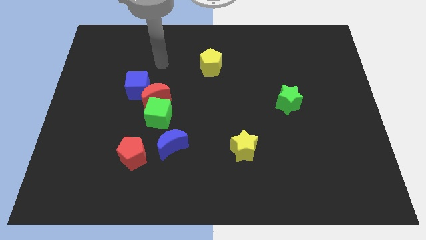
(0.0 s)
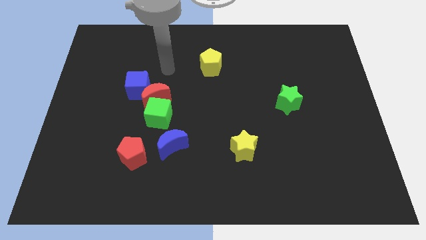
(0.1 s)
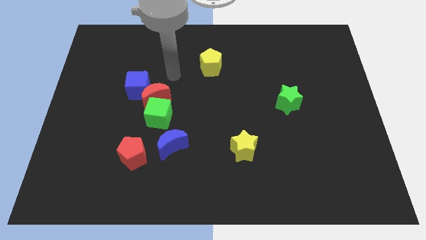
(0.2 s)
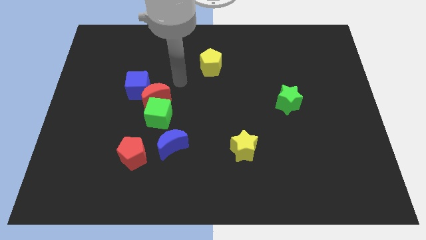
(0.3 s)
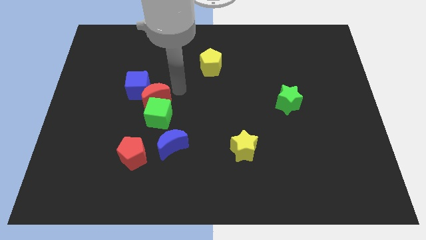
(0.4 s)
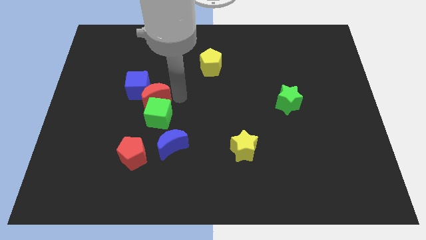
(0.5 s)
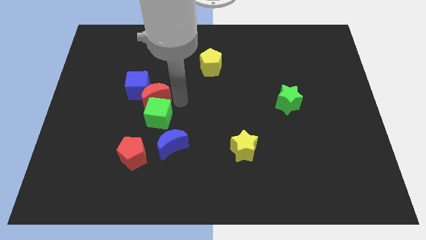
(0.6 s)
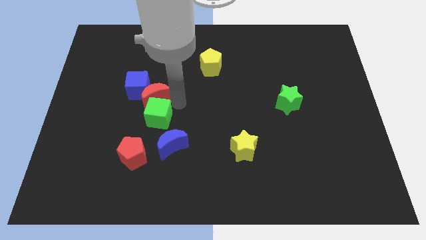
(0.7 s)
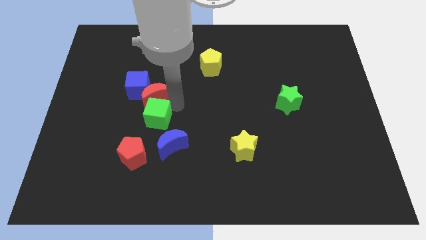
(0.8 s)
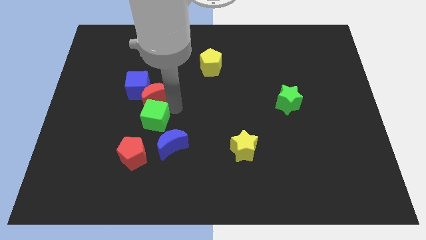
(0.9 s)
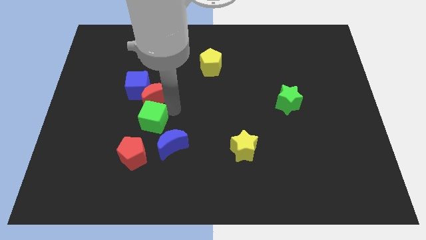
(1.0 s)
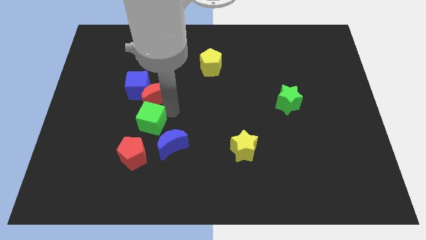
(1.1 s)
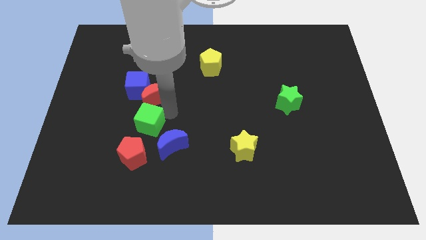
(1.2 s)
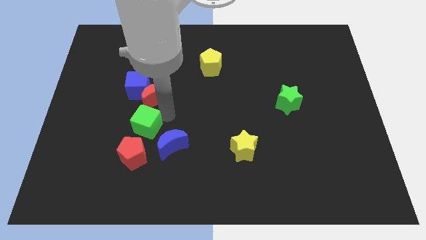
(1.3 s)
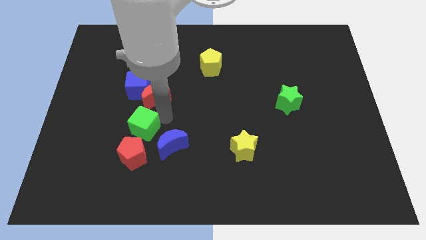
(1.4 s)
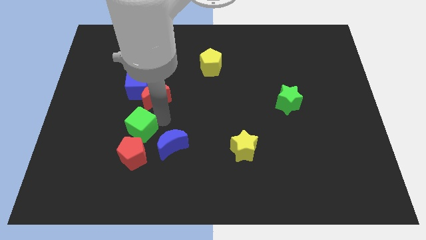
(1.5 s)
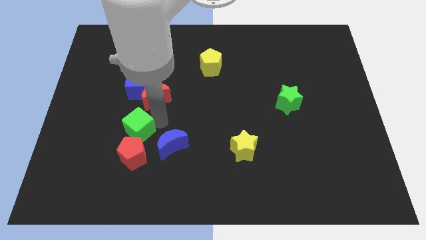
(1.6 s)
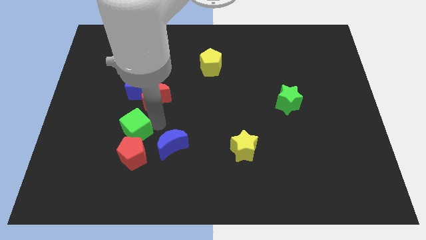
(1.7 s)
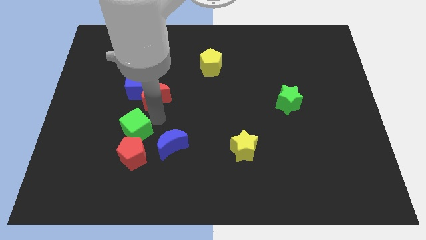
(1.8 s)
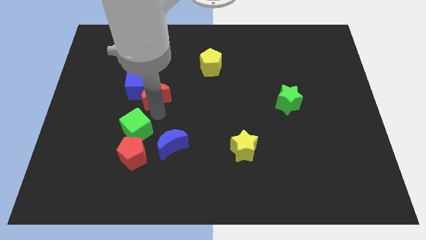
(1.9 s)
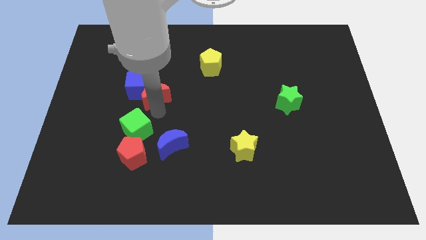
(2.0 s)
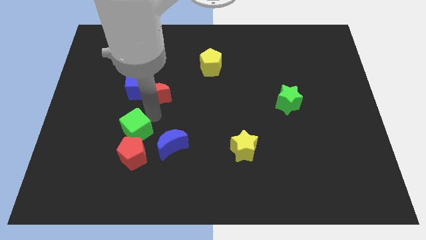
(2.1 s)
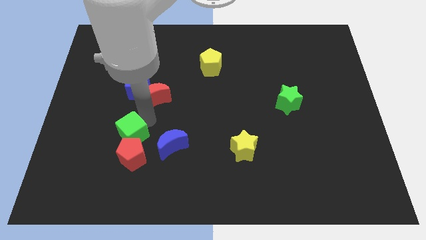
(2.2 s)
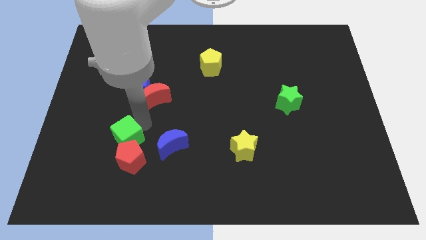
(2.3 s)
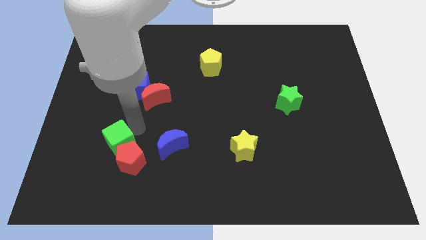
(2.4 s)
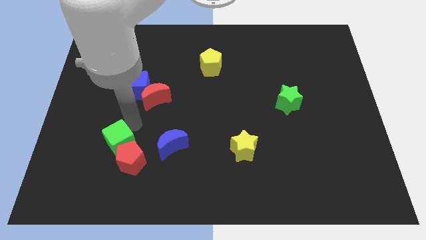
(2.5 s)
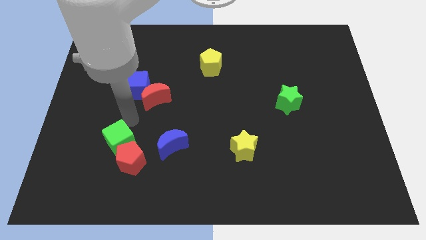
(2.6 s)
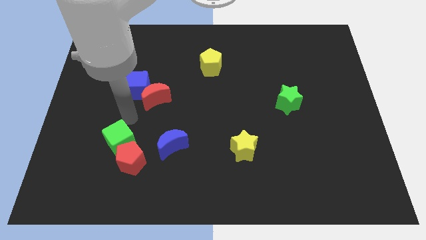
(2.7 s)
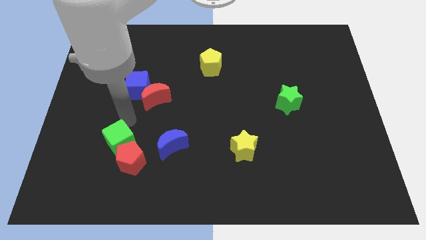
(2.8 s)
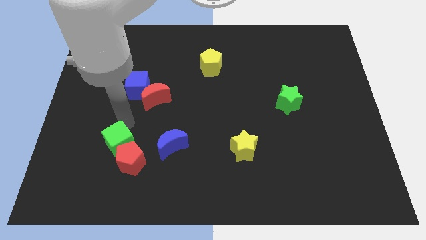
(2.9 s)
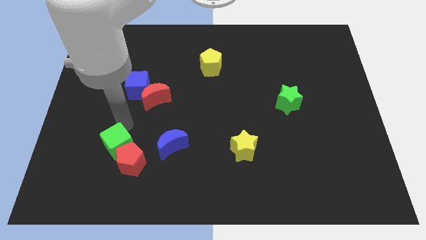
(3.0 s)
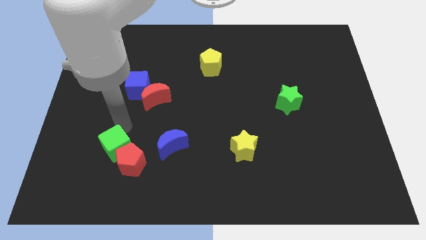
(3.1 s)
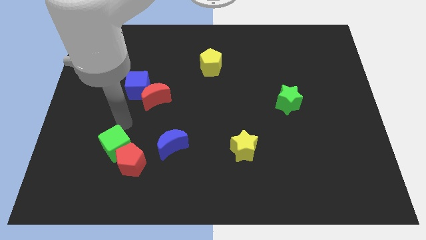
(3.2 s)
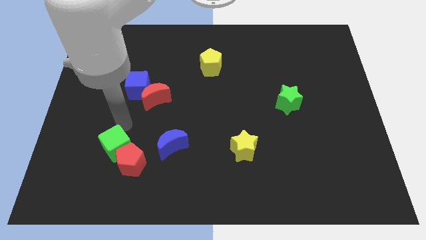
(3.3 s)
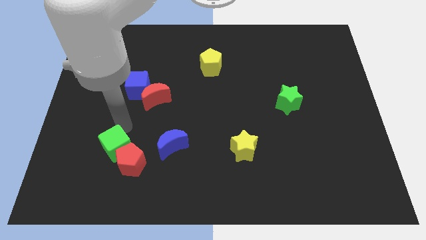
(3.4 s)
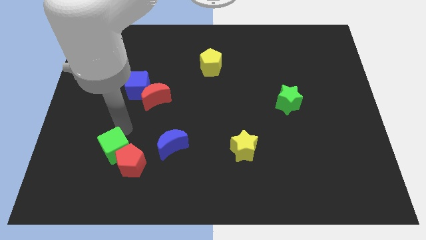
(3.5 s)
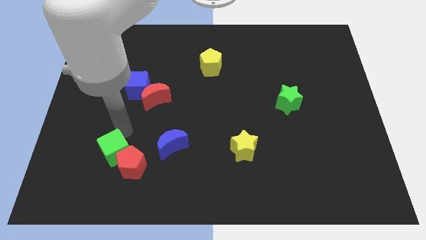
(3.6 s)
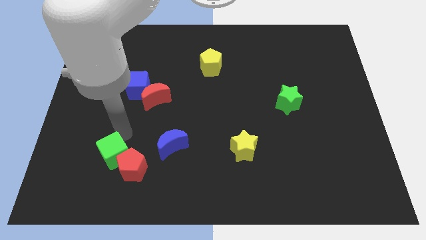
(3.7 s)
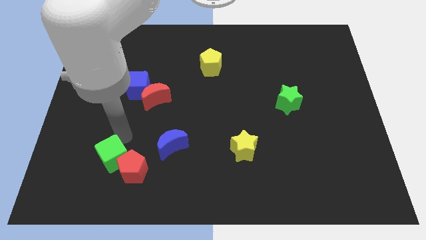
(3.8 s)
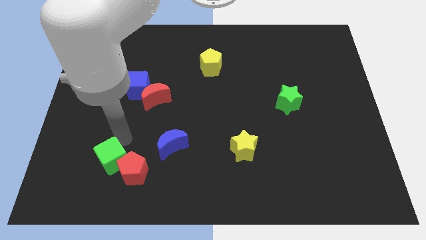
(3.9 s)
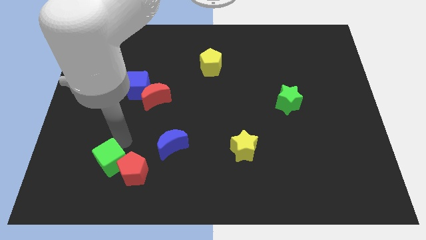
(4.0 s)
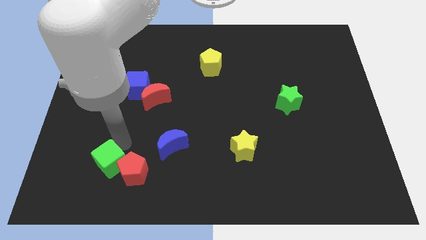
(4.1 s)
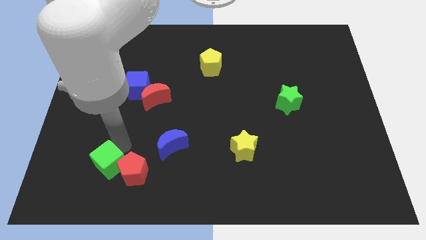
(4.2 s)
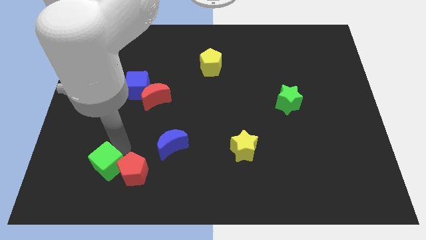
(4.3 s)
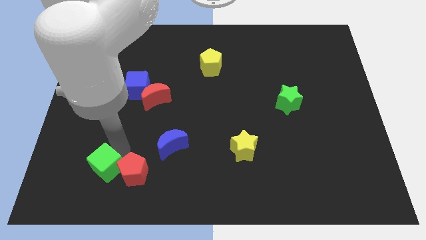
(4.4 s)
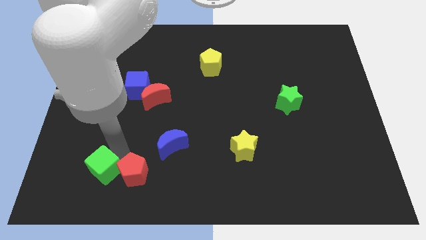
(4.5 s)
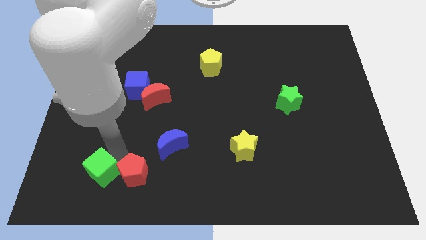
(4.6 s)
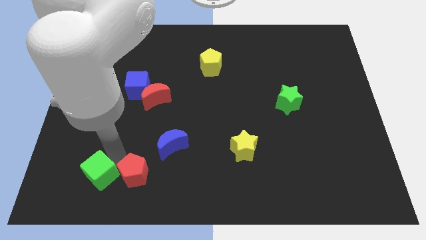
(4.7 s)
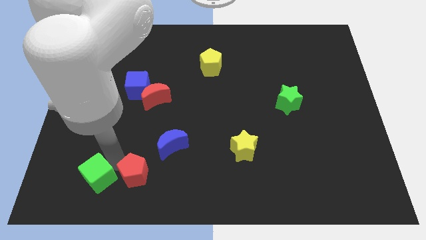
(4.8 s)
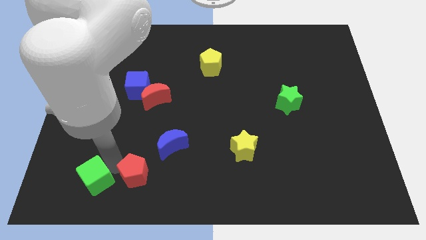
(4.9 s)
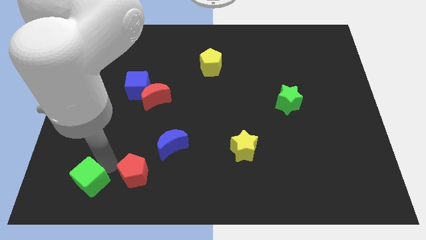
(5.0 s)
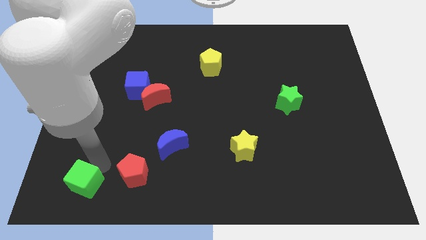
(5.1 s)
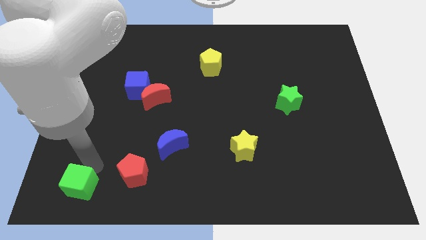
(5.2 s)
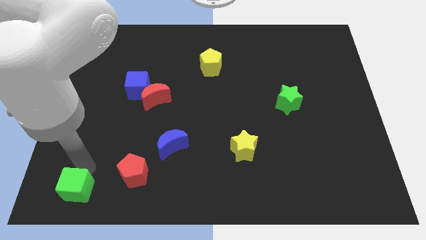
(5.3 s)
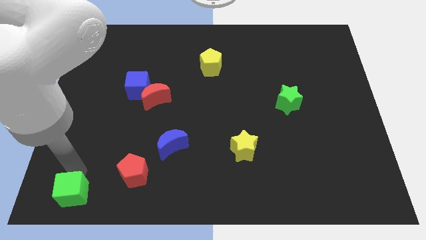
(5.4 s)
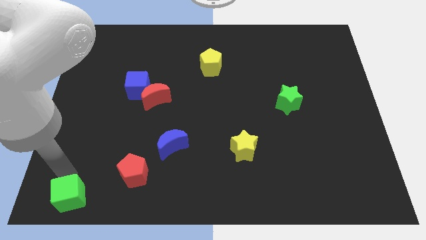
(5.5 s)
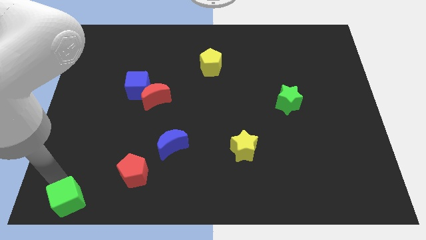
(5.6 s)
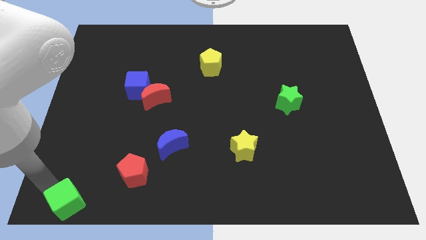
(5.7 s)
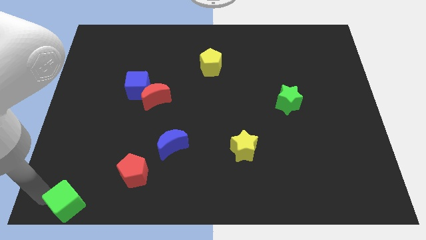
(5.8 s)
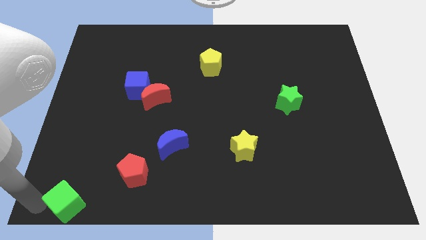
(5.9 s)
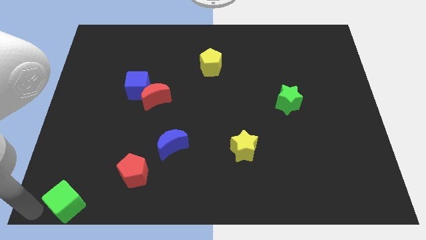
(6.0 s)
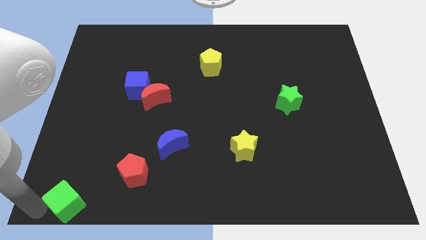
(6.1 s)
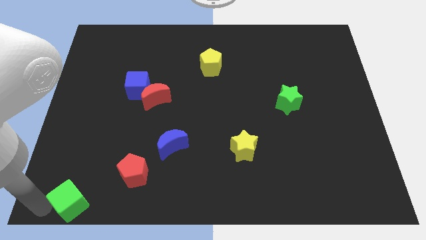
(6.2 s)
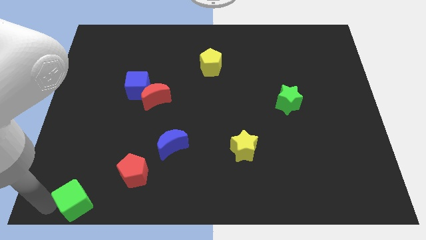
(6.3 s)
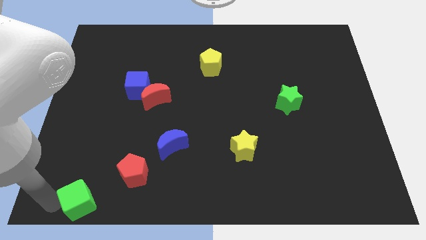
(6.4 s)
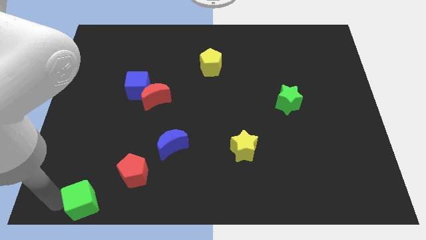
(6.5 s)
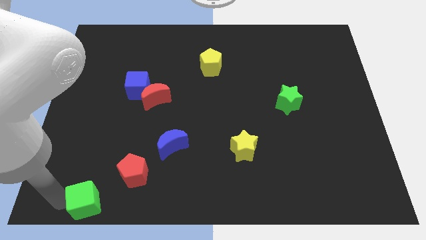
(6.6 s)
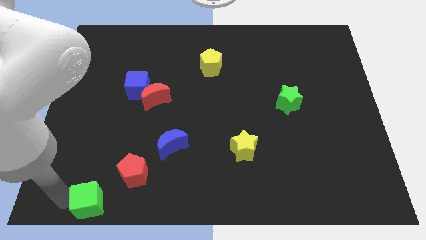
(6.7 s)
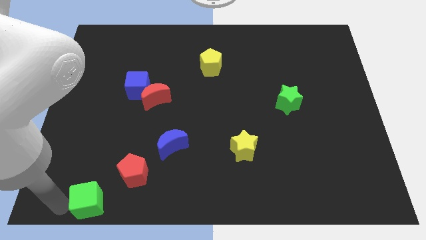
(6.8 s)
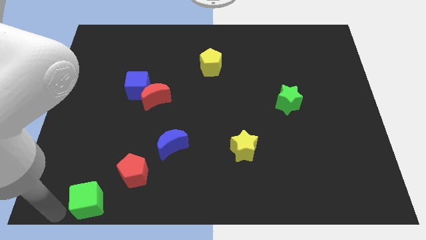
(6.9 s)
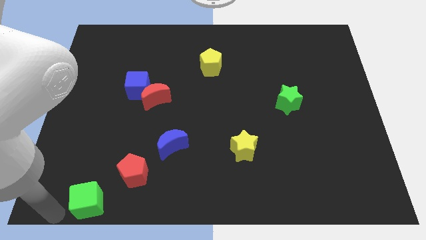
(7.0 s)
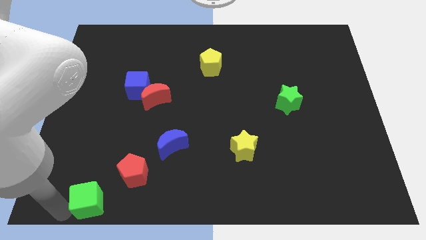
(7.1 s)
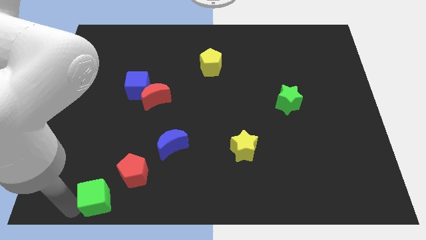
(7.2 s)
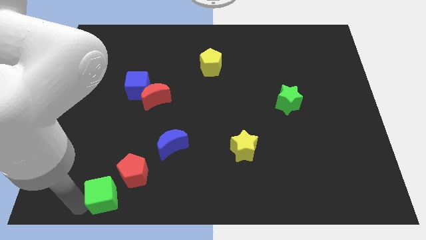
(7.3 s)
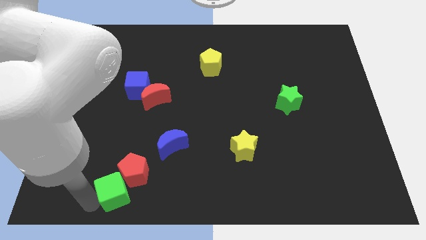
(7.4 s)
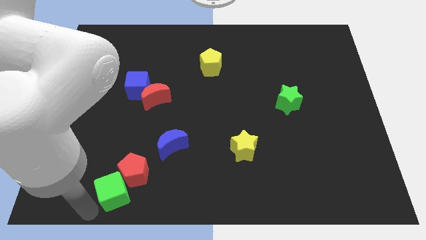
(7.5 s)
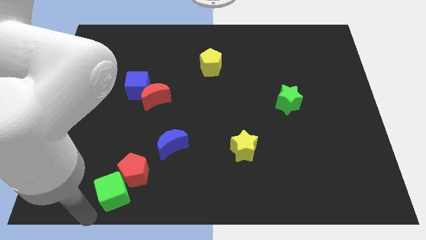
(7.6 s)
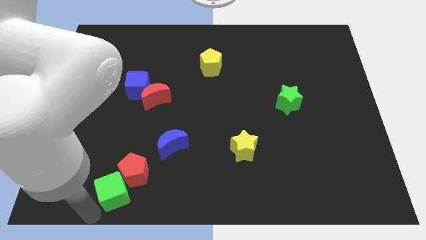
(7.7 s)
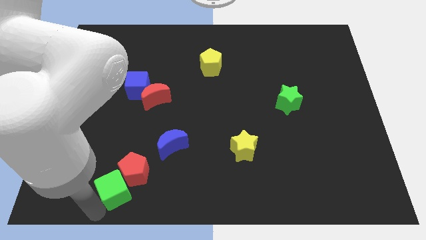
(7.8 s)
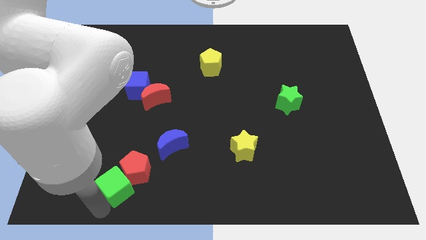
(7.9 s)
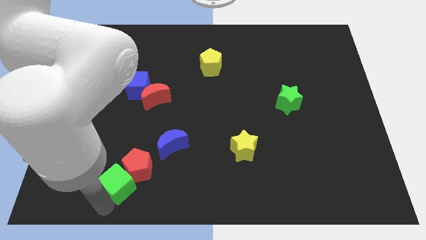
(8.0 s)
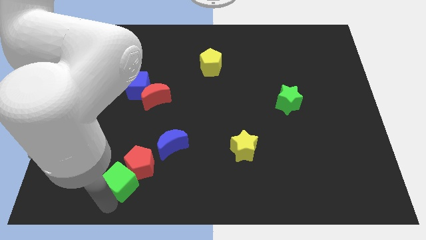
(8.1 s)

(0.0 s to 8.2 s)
push the green cube diagonally down and to the left of the blue moon
